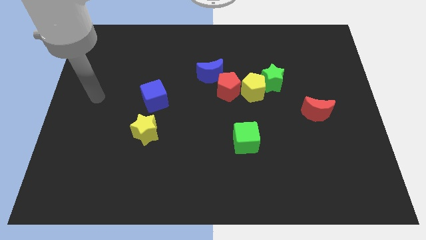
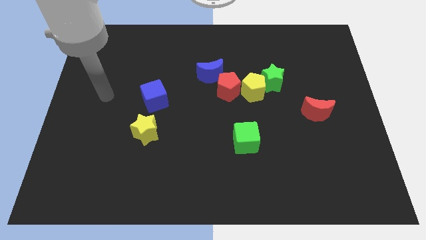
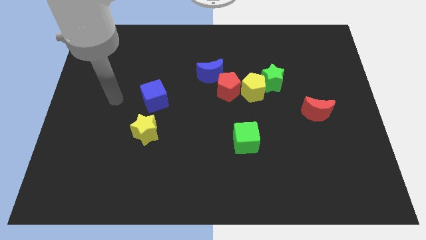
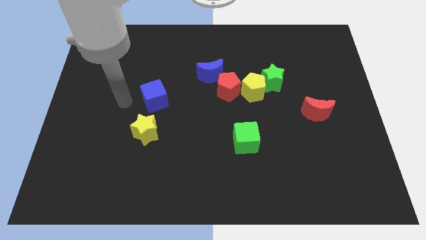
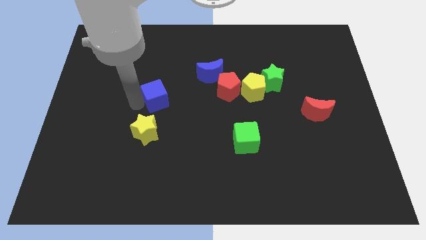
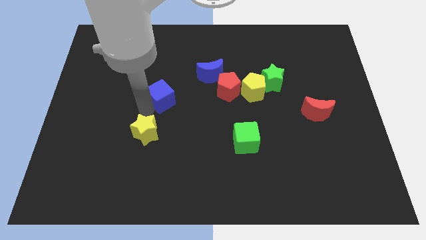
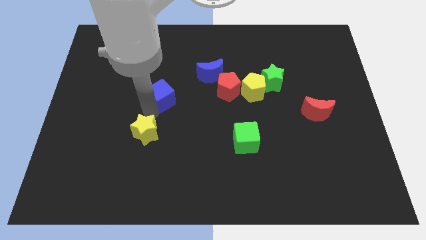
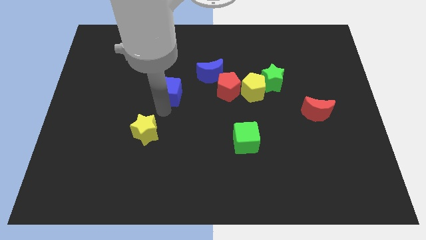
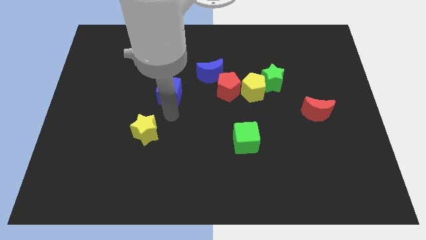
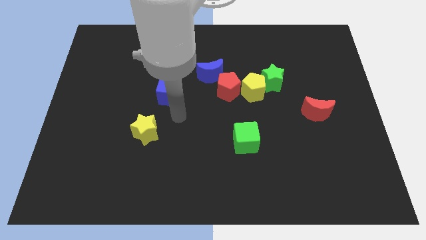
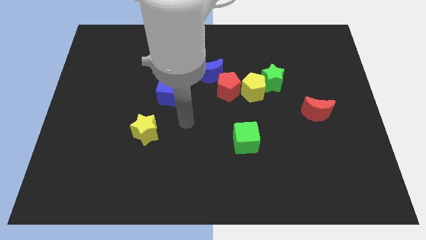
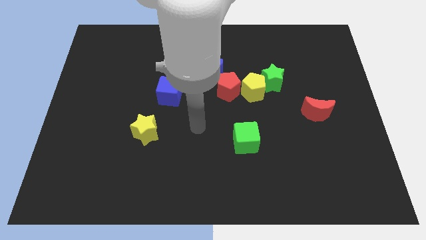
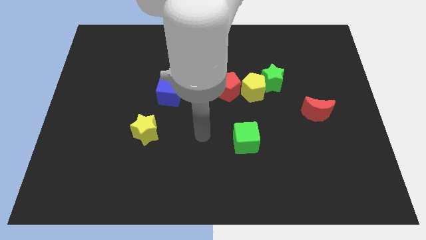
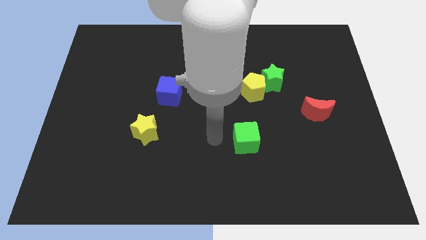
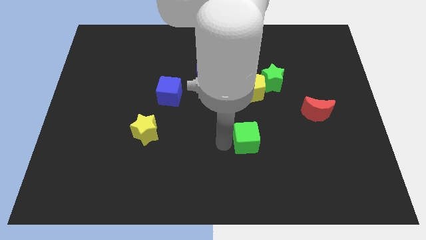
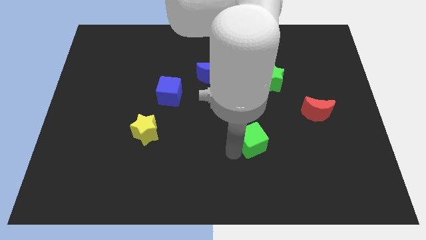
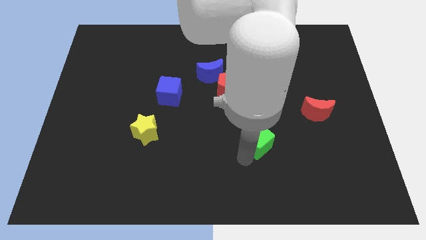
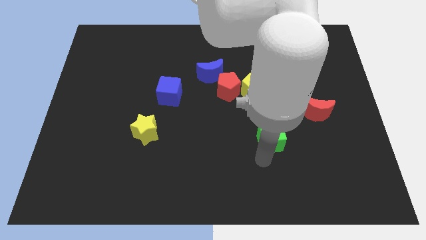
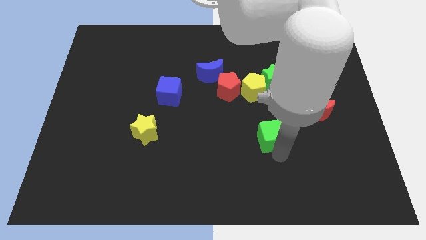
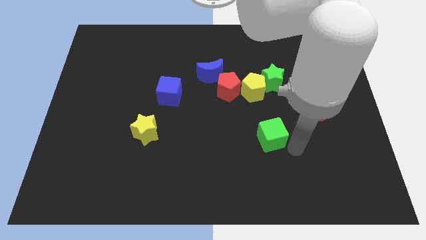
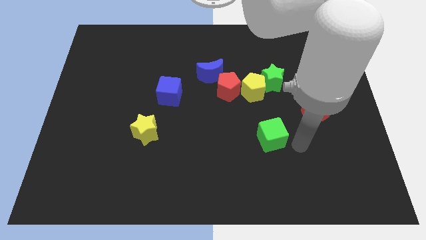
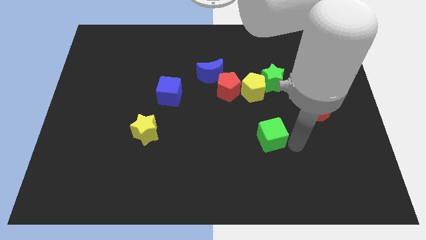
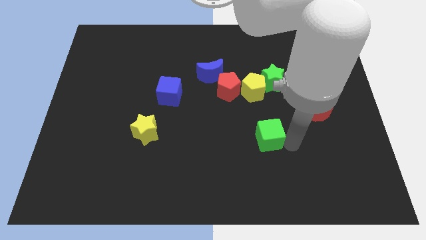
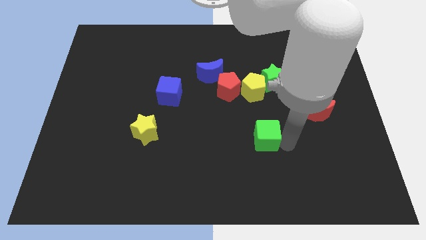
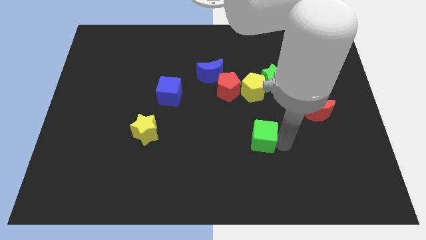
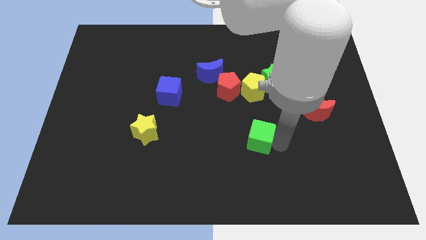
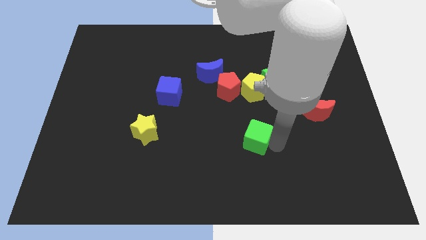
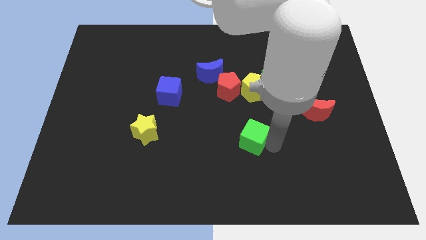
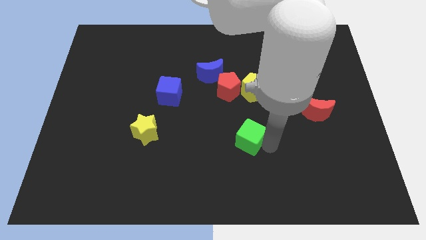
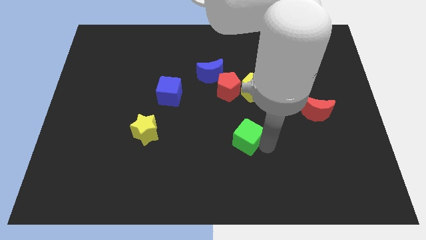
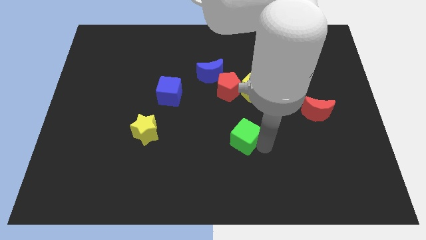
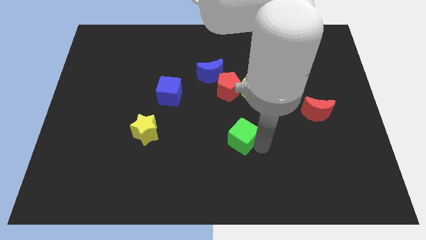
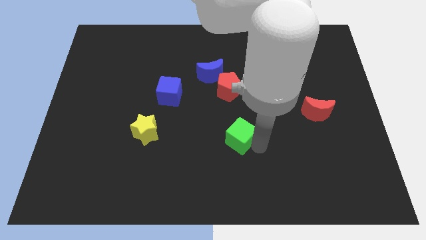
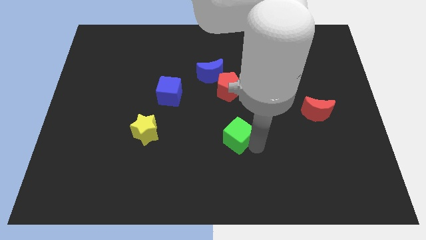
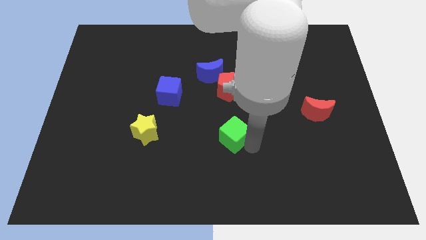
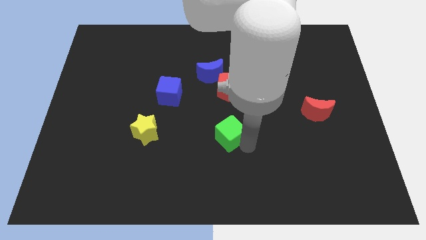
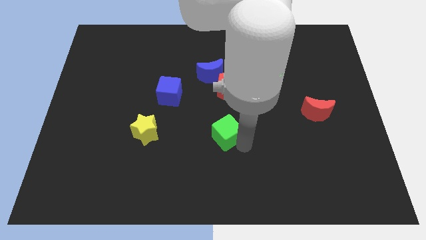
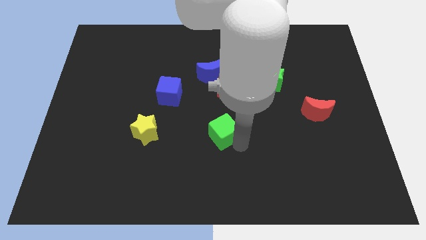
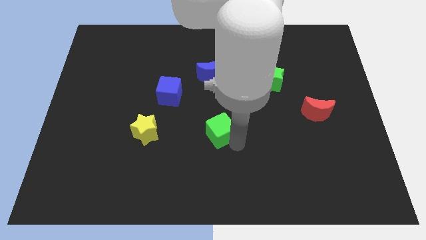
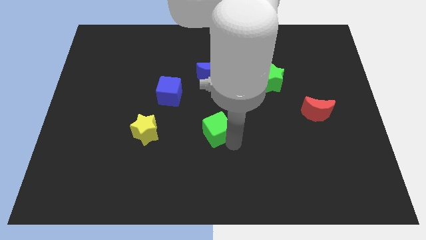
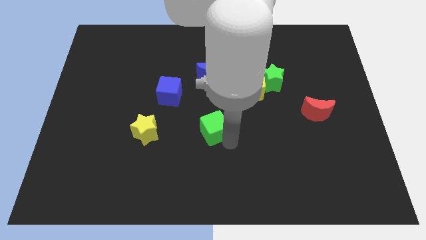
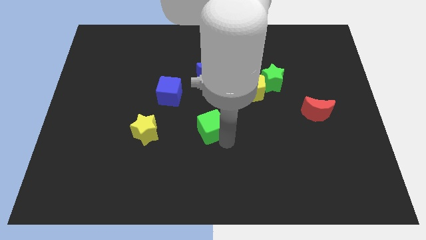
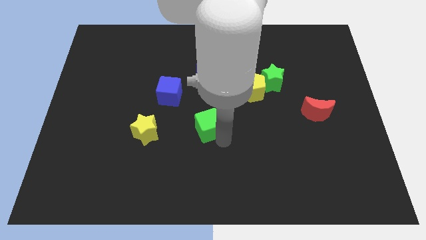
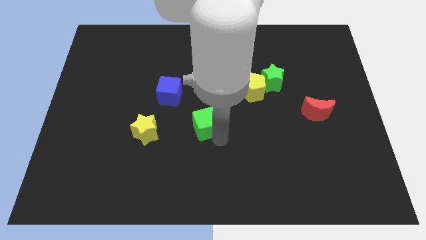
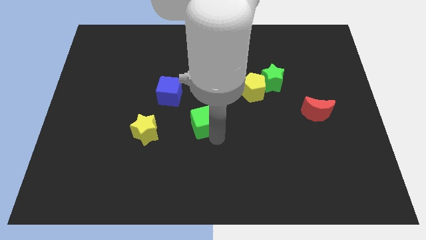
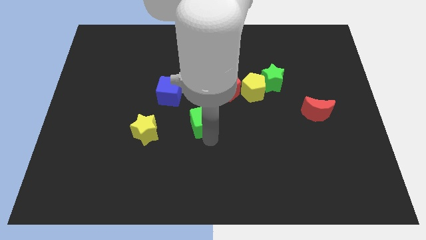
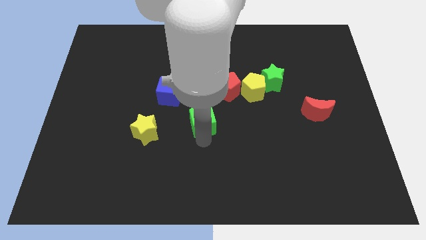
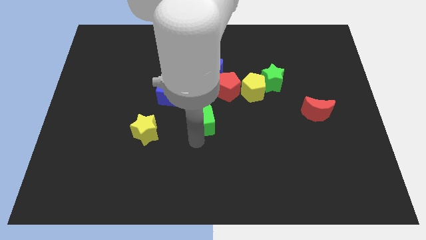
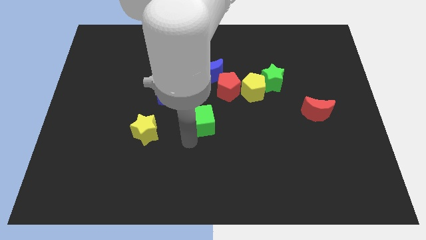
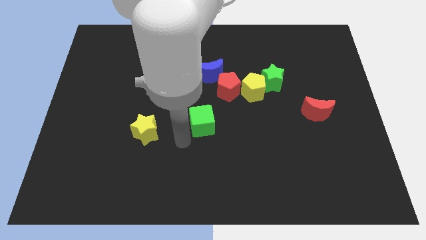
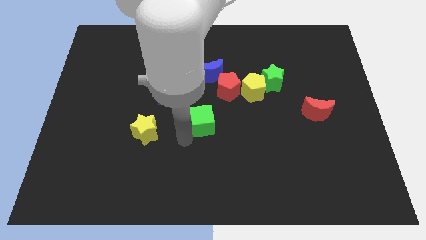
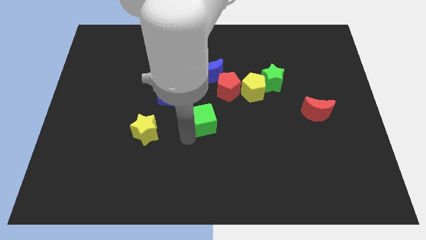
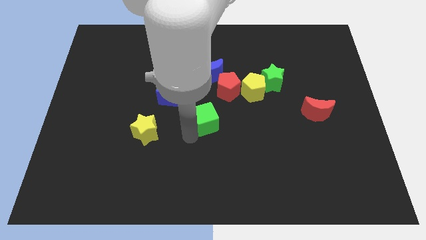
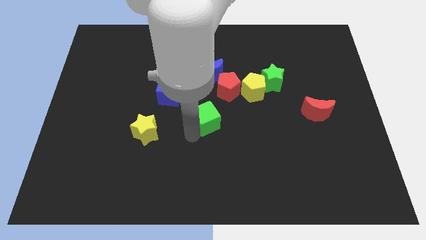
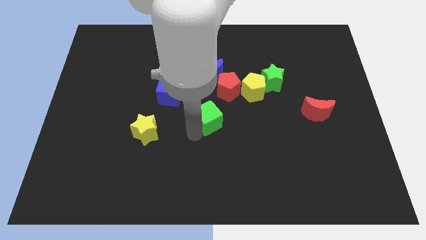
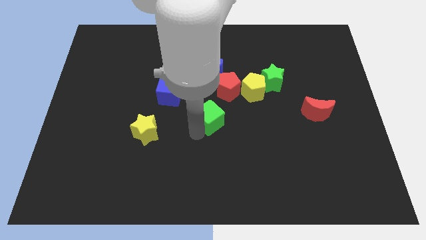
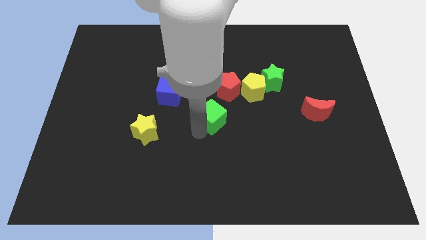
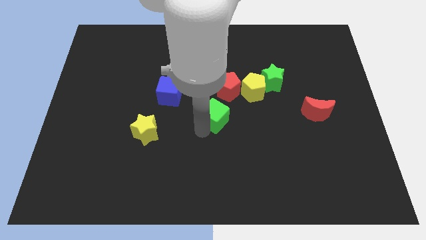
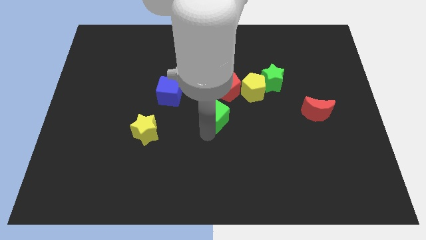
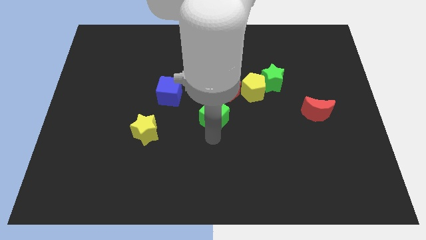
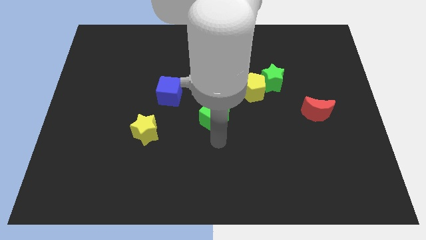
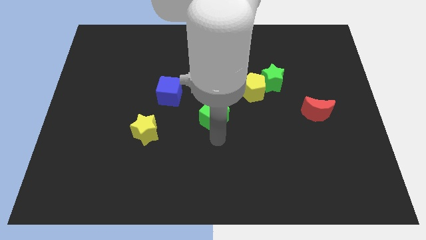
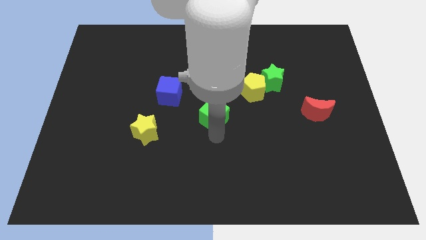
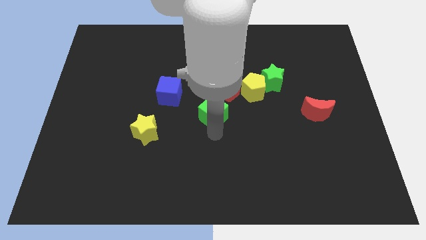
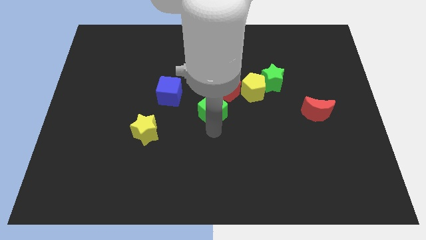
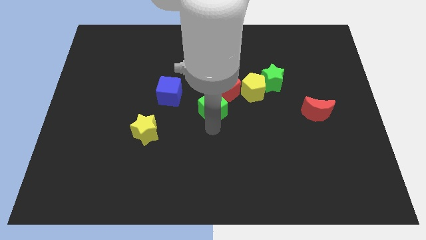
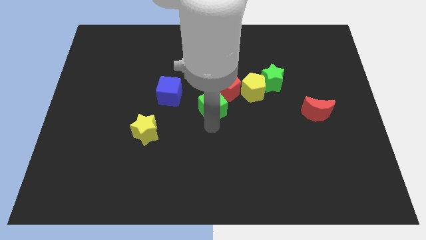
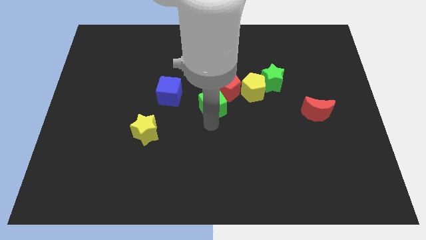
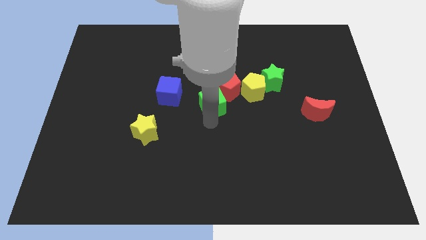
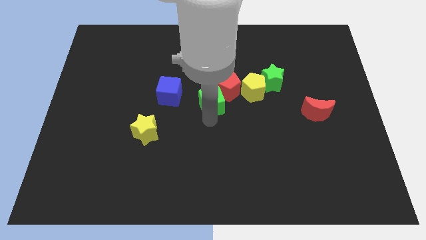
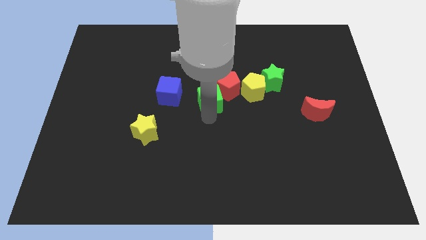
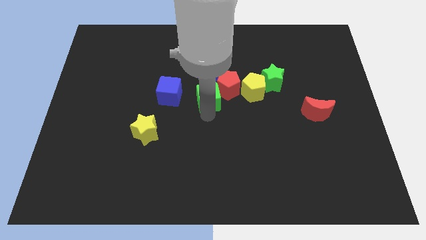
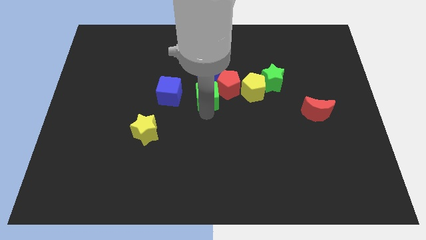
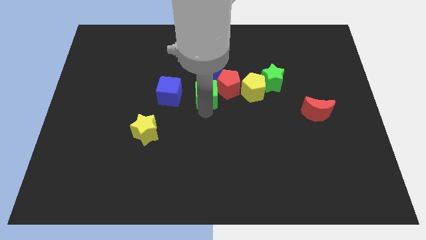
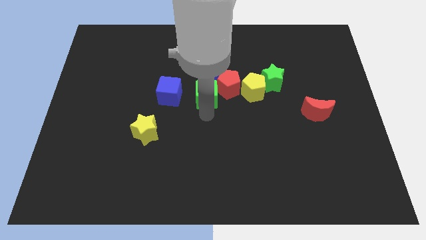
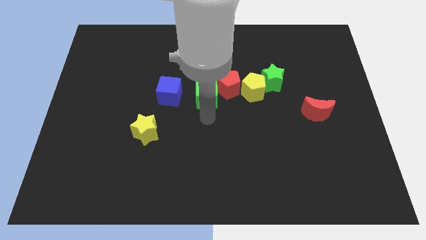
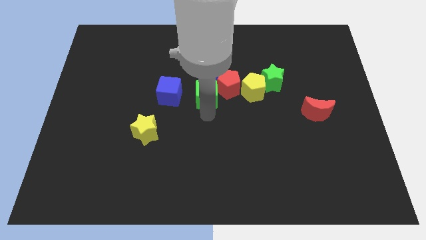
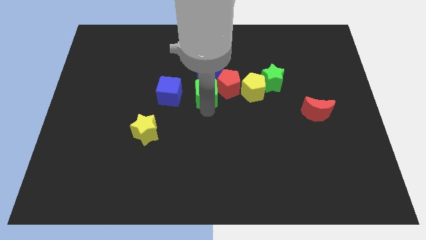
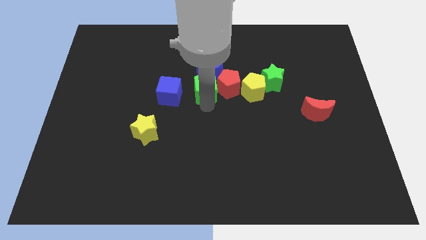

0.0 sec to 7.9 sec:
push the green cube close to the blue moon
